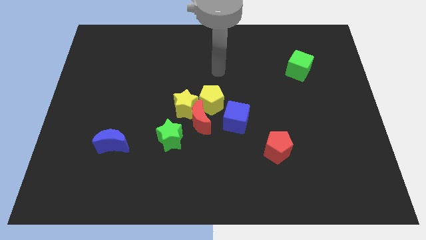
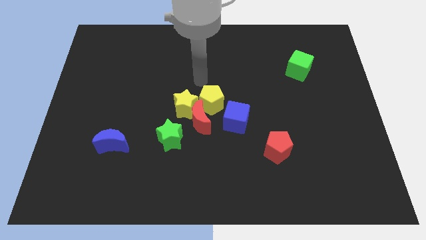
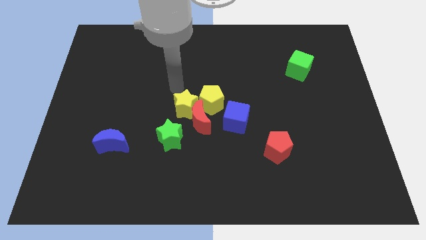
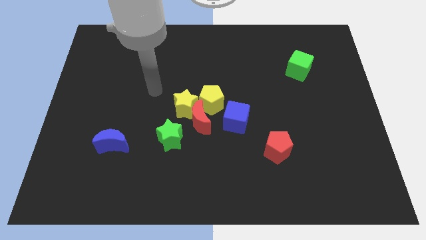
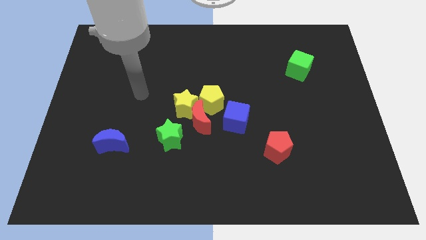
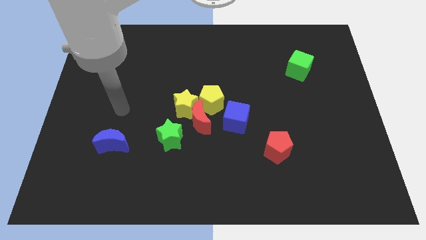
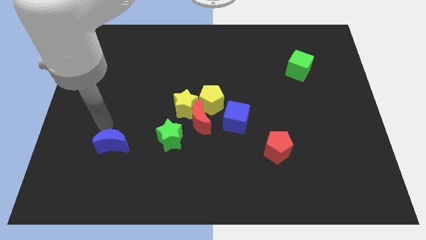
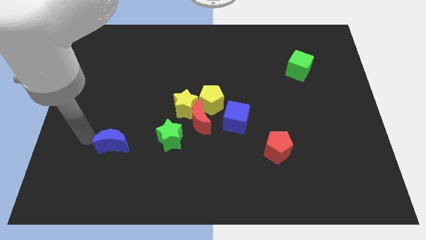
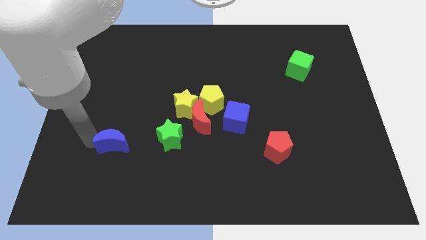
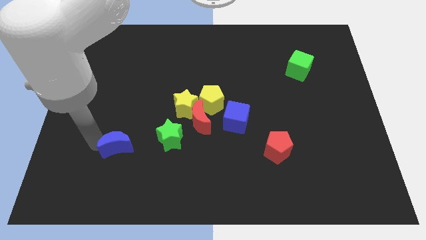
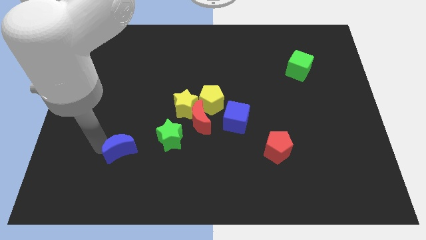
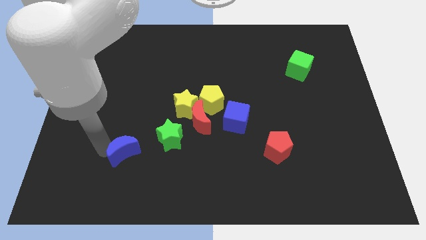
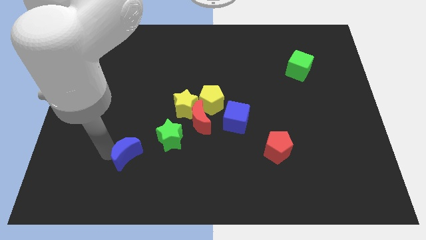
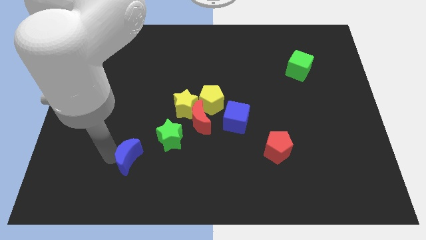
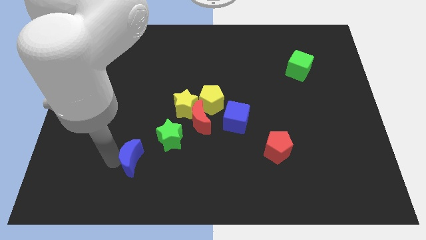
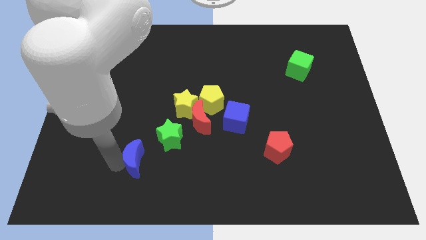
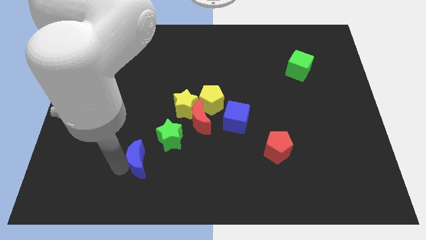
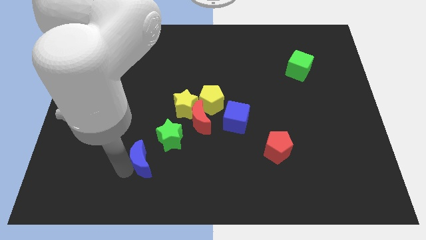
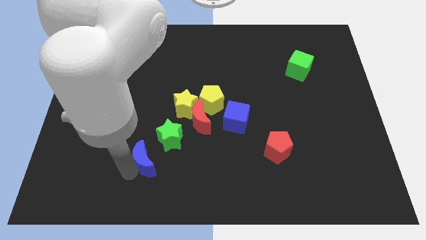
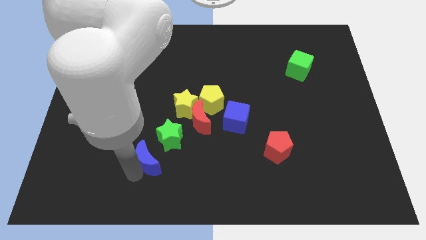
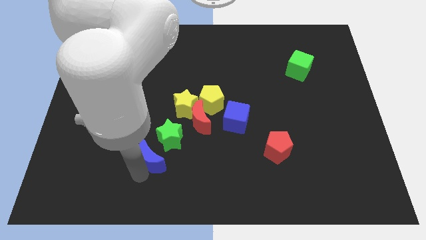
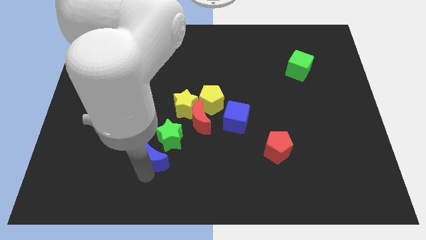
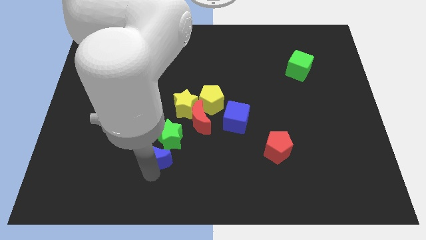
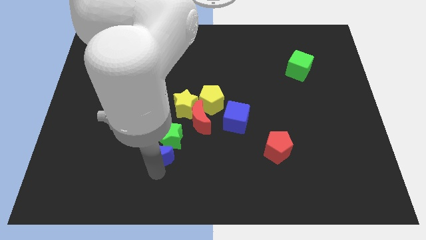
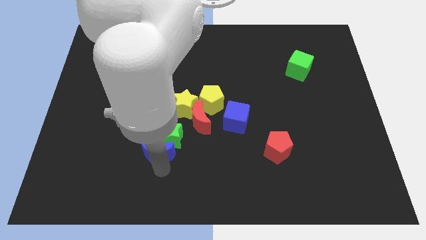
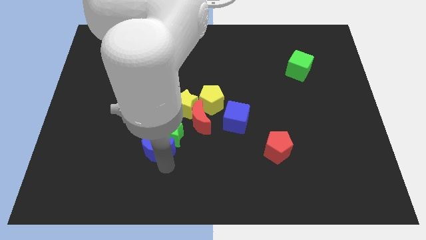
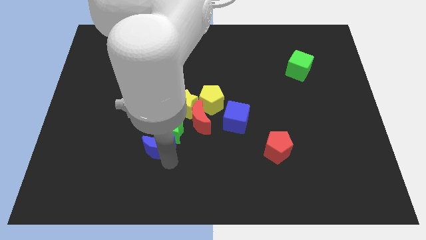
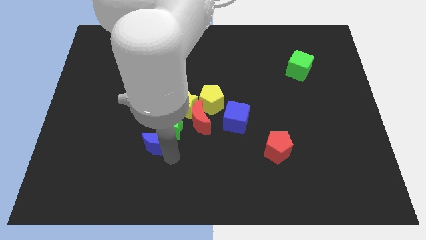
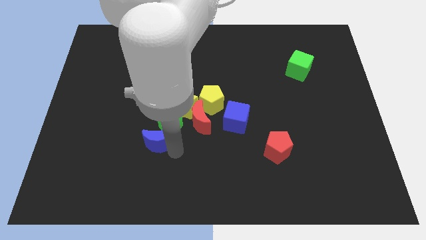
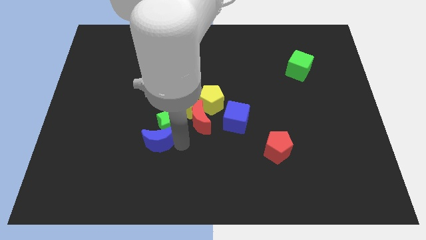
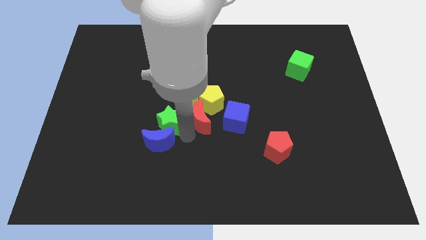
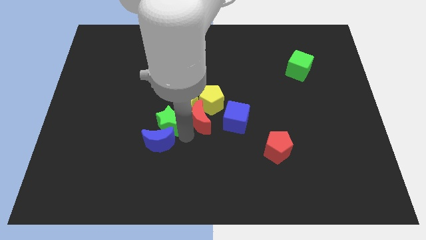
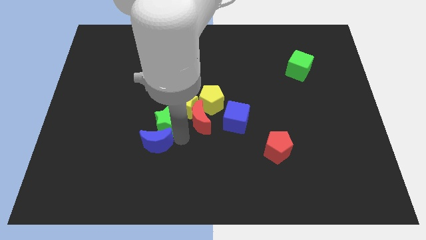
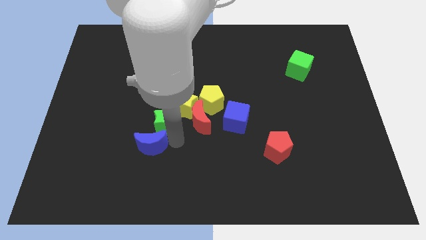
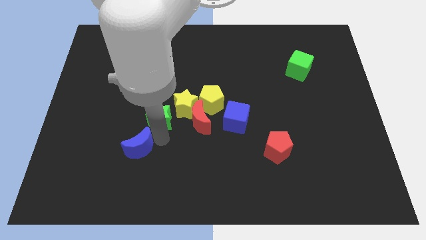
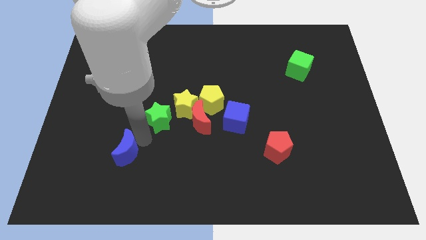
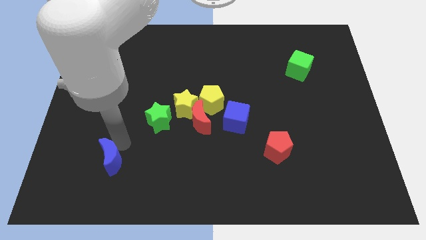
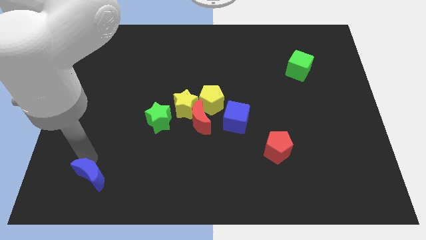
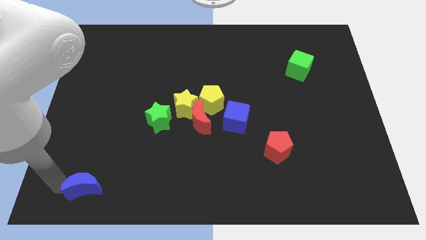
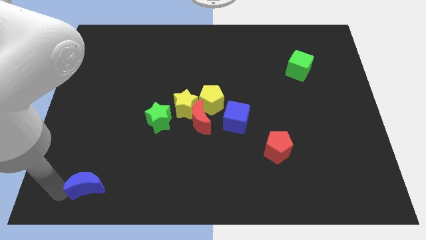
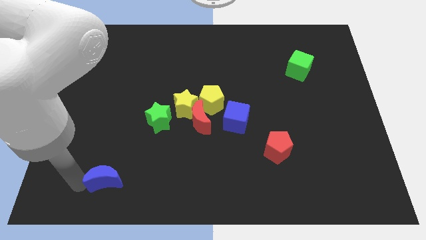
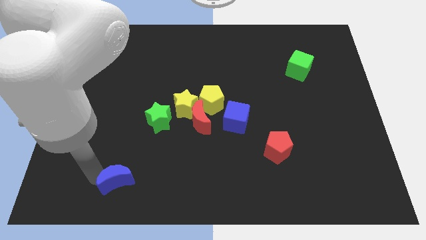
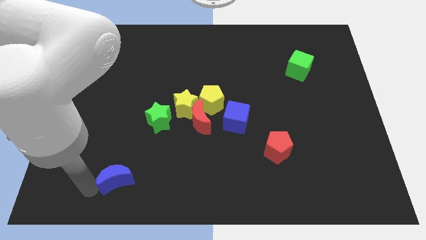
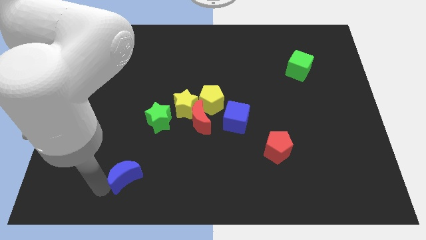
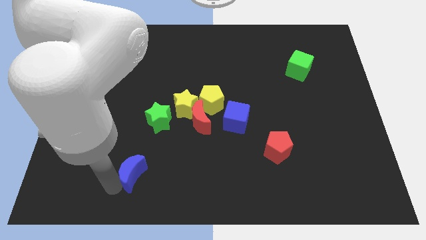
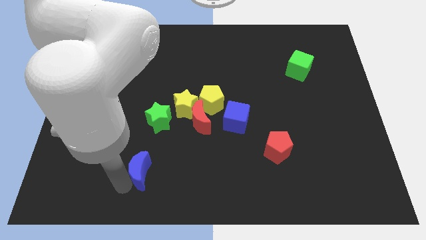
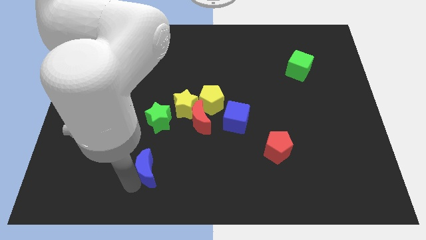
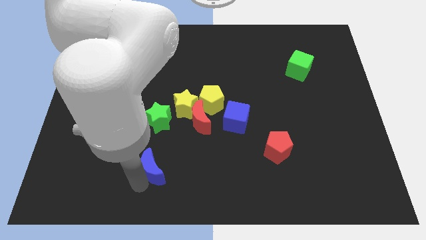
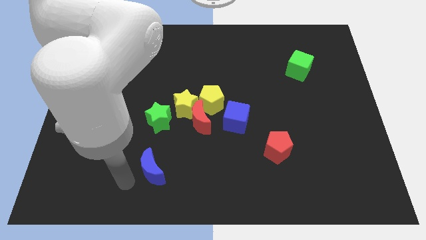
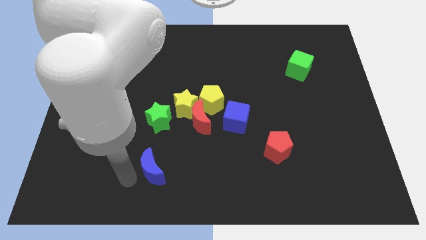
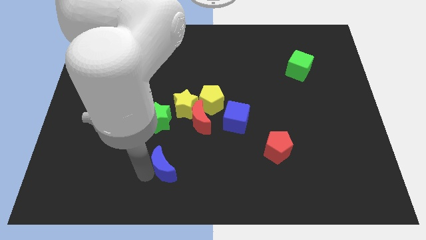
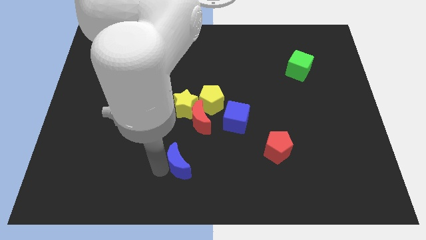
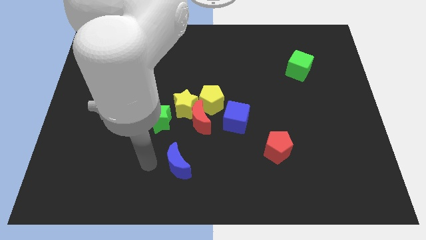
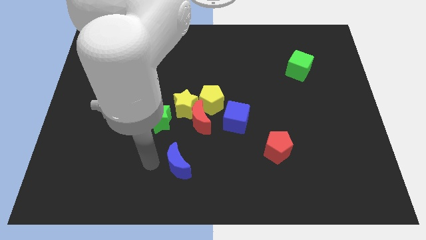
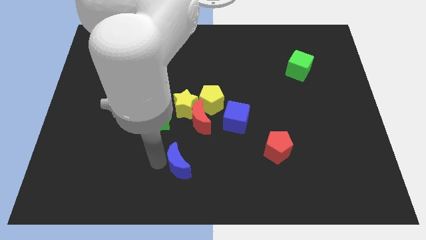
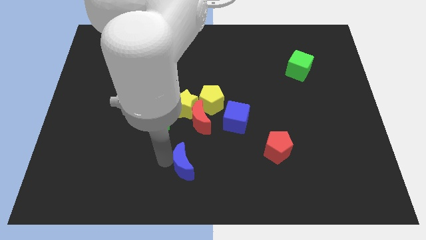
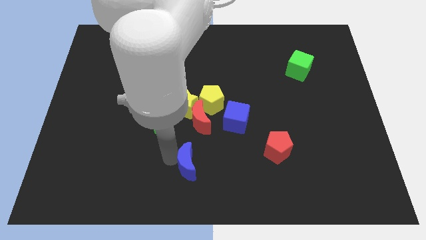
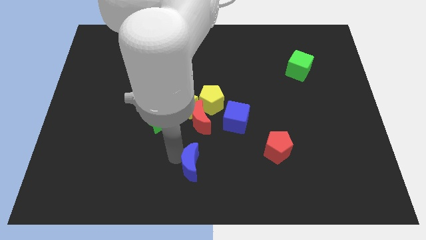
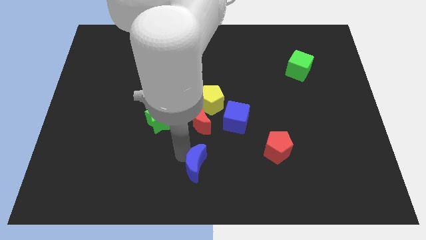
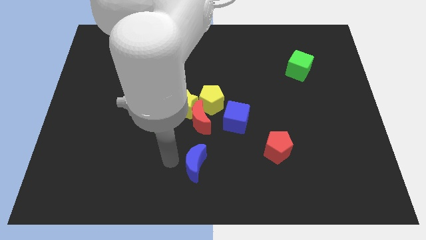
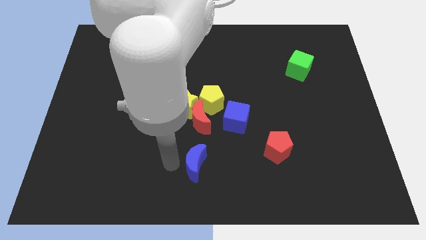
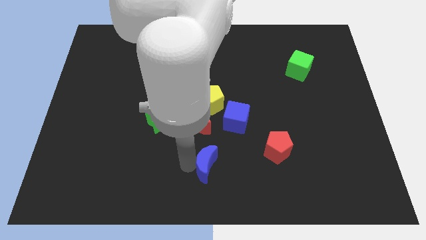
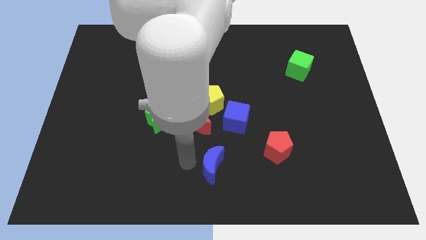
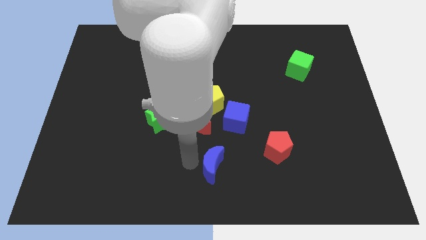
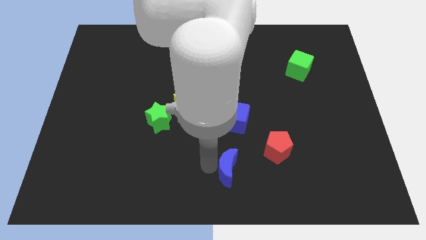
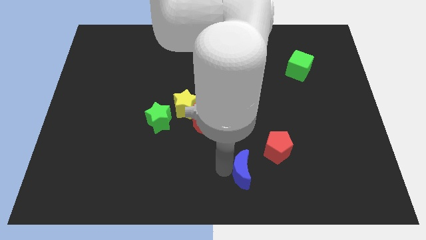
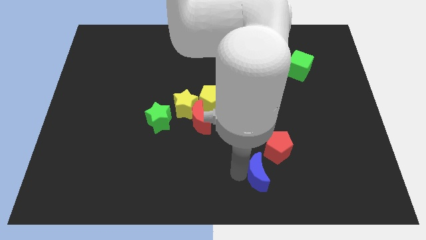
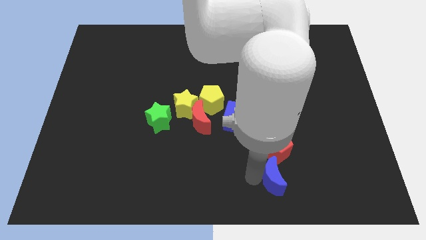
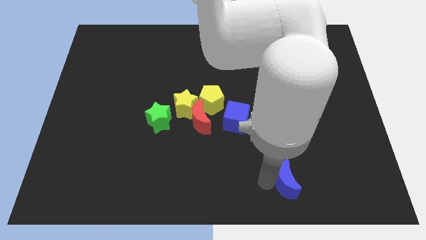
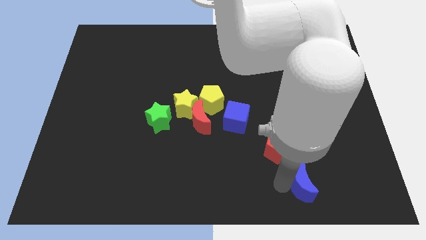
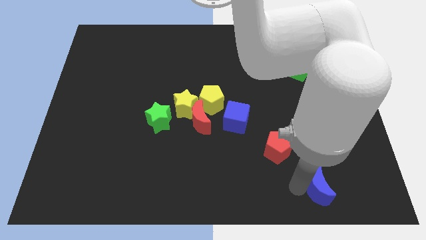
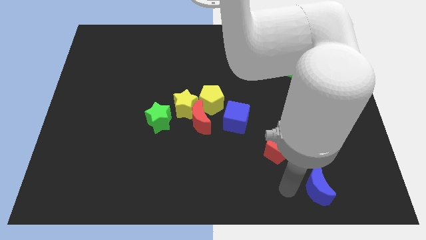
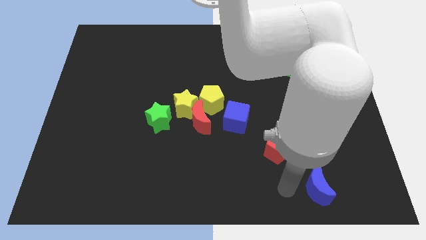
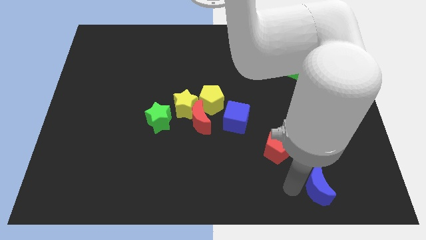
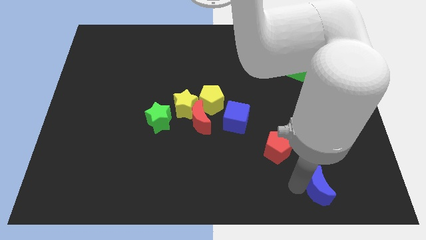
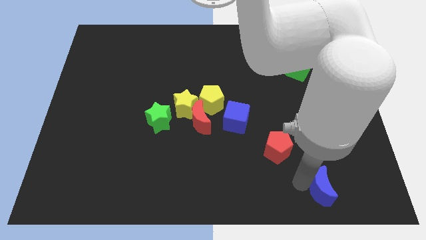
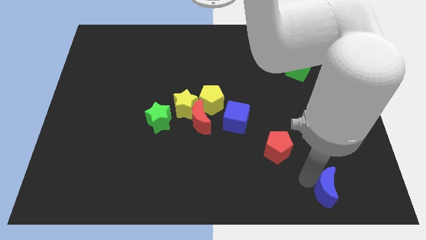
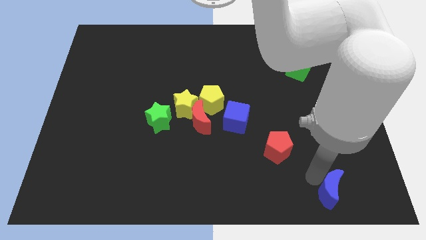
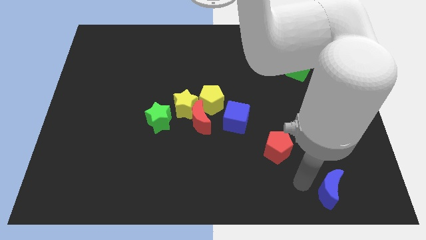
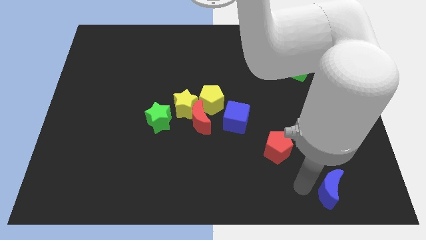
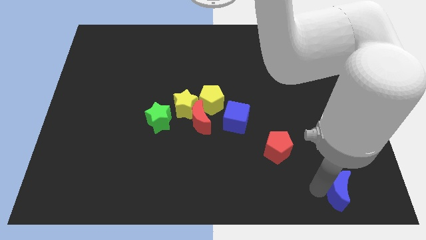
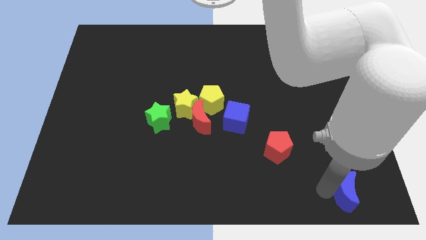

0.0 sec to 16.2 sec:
move the blue moon to the bottom right of the board
